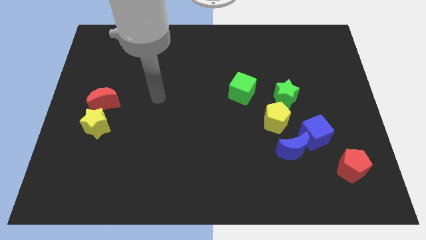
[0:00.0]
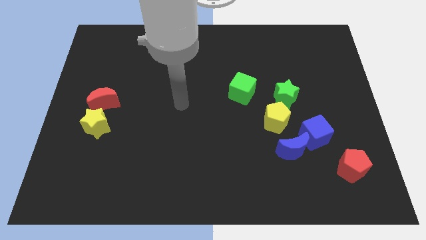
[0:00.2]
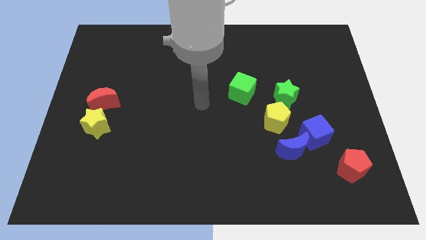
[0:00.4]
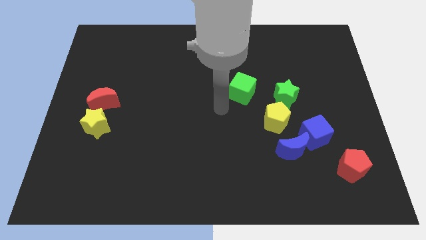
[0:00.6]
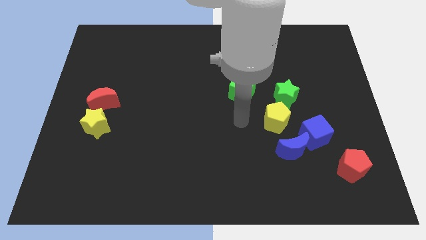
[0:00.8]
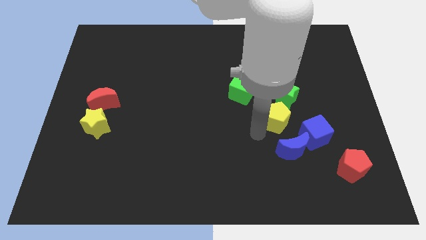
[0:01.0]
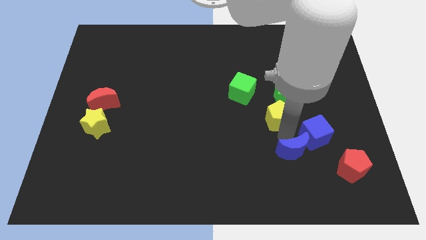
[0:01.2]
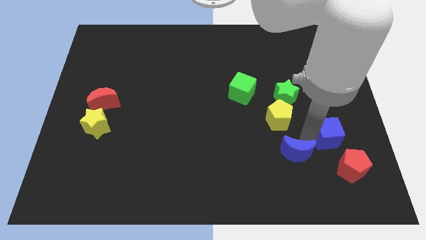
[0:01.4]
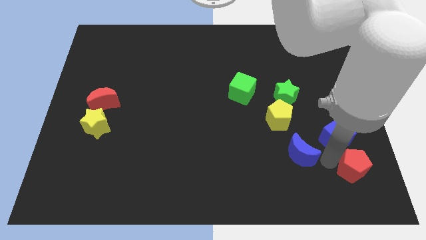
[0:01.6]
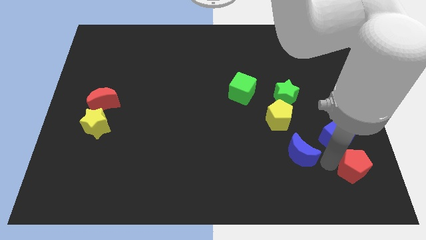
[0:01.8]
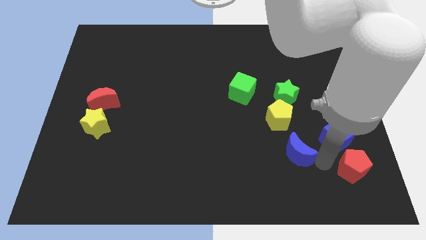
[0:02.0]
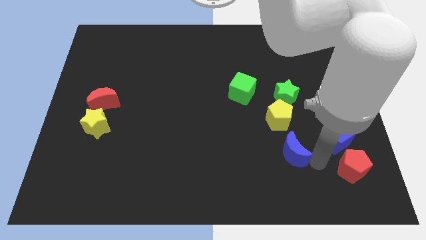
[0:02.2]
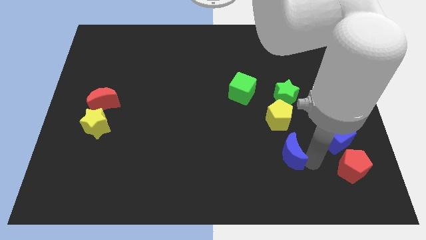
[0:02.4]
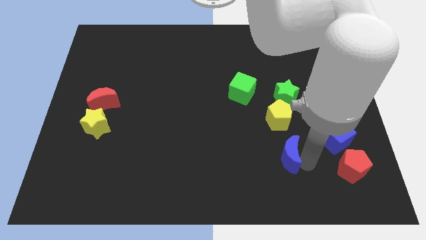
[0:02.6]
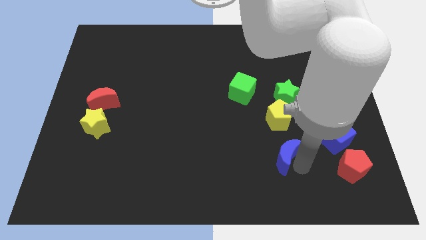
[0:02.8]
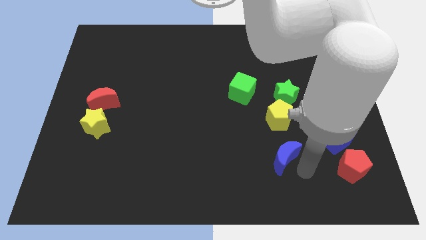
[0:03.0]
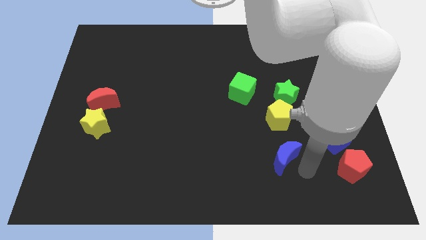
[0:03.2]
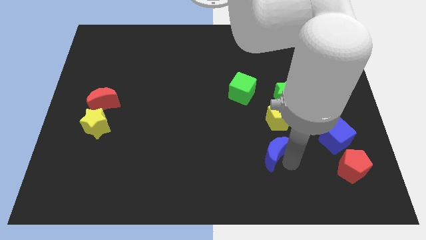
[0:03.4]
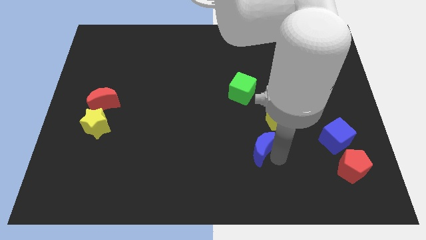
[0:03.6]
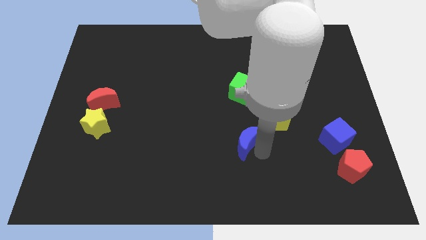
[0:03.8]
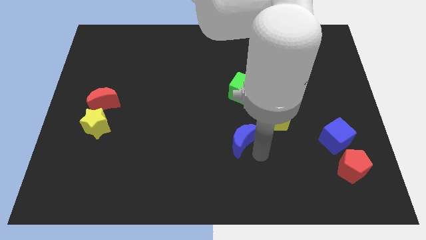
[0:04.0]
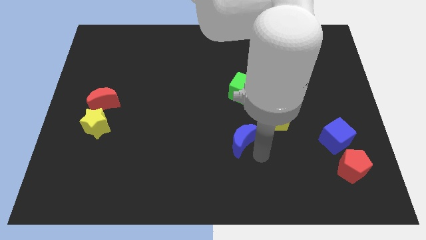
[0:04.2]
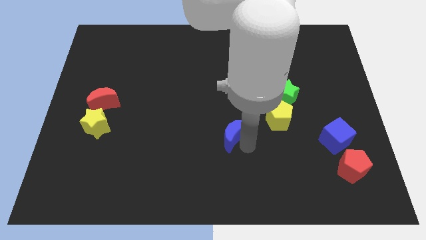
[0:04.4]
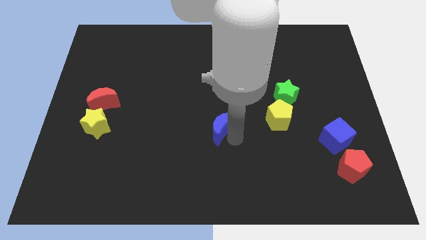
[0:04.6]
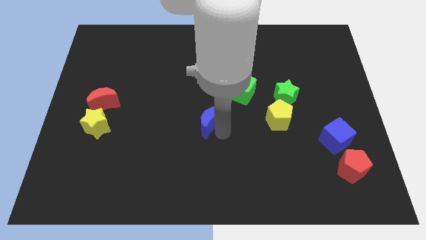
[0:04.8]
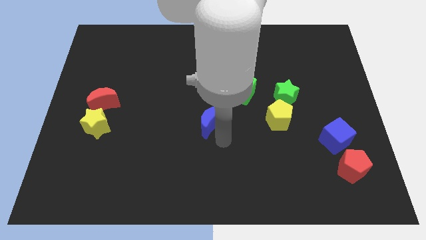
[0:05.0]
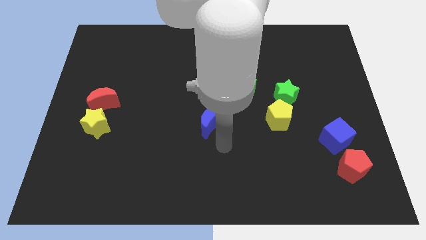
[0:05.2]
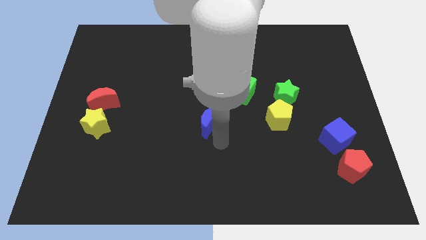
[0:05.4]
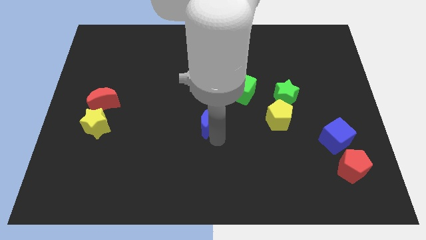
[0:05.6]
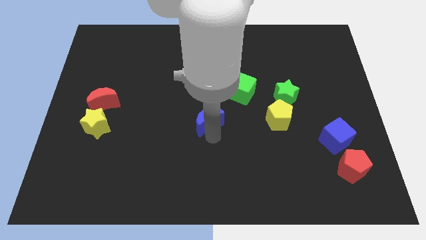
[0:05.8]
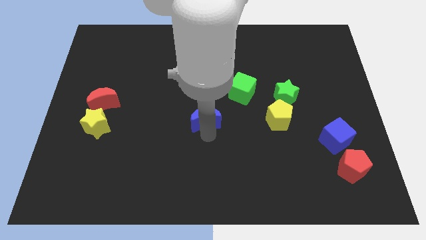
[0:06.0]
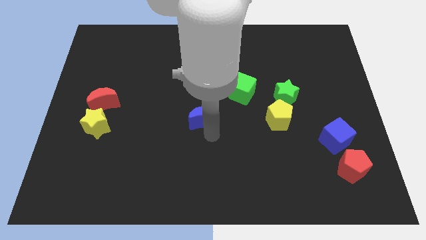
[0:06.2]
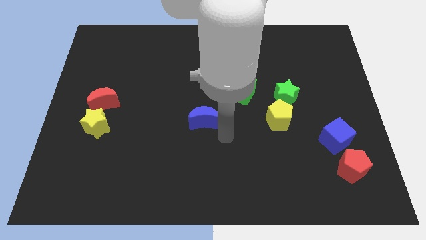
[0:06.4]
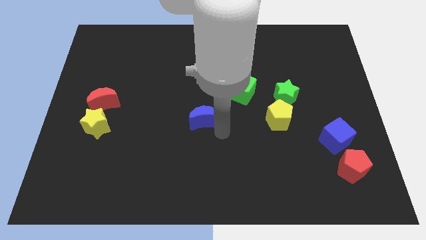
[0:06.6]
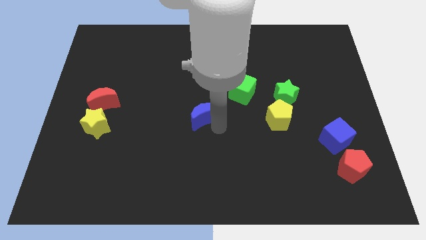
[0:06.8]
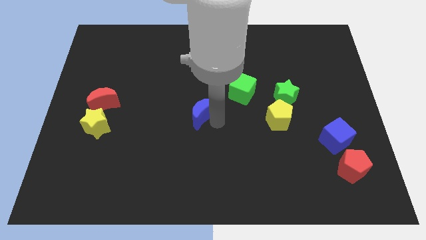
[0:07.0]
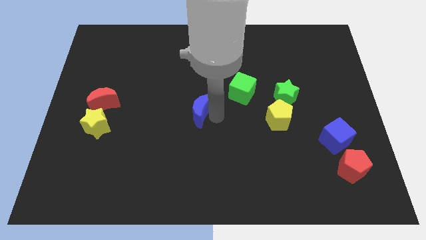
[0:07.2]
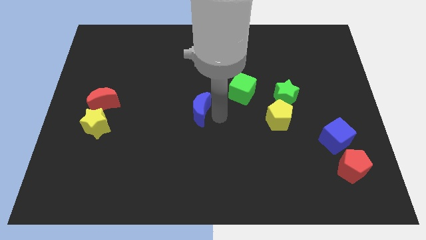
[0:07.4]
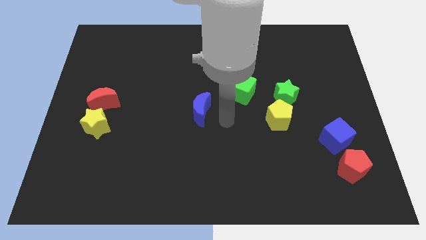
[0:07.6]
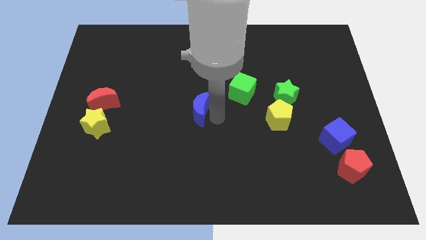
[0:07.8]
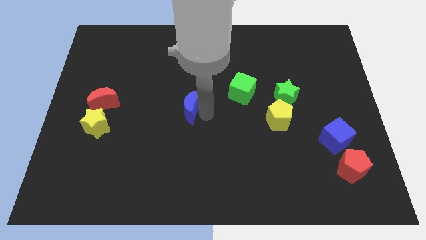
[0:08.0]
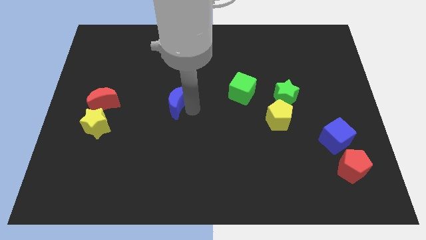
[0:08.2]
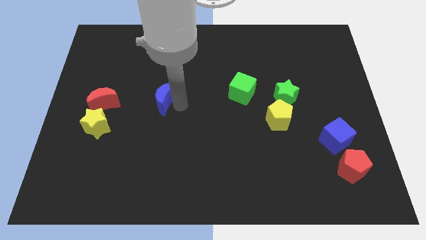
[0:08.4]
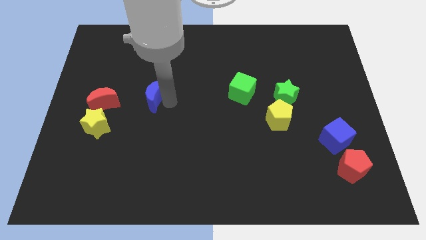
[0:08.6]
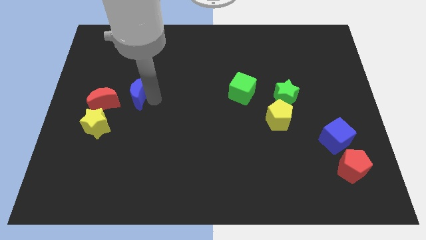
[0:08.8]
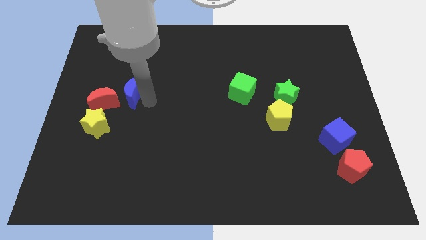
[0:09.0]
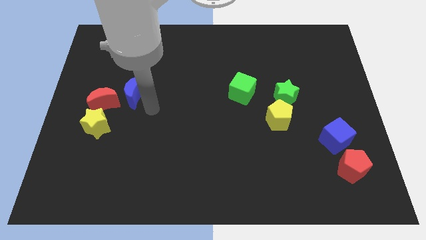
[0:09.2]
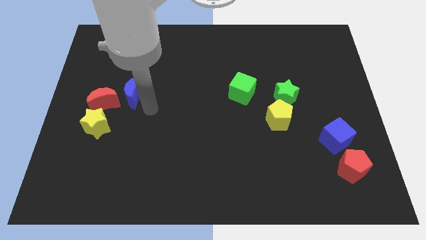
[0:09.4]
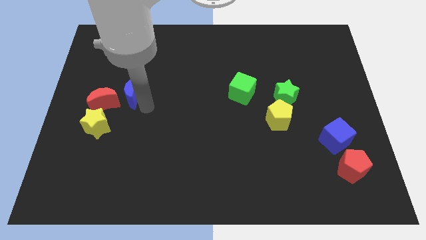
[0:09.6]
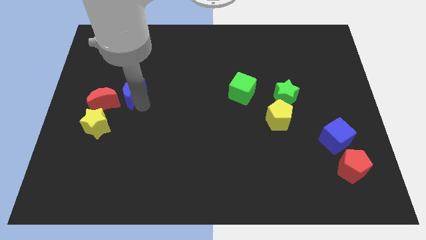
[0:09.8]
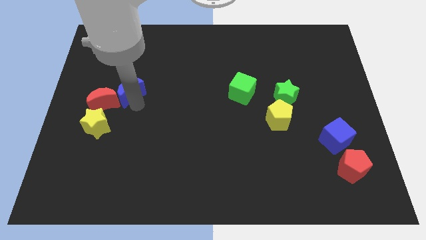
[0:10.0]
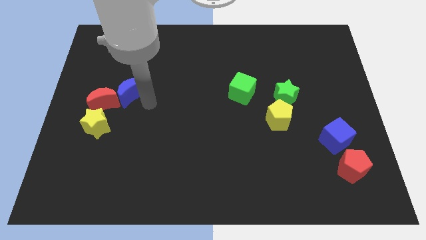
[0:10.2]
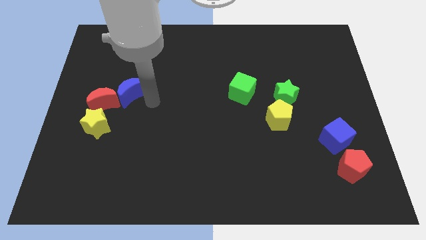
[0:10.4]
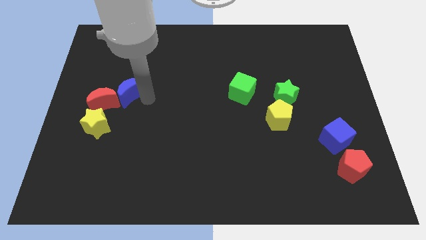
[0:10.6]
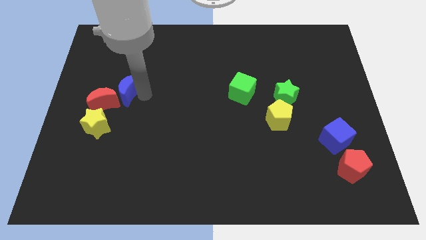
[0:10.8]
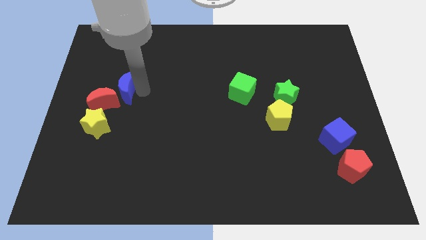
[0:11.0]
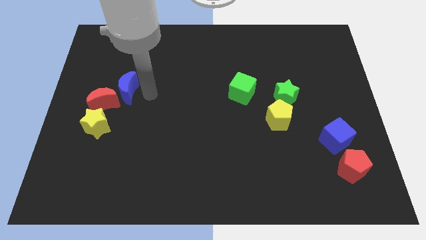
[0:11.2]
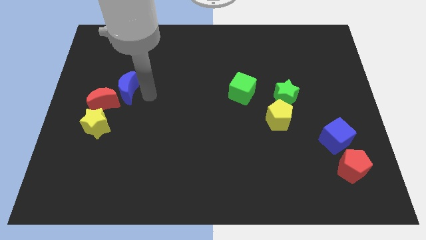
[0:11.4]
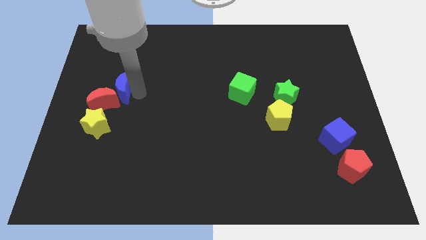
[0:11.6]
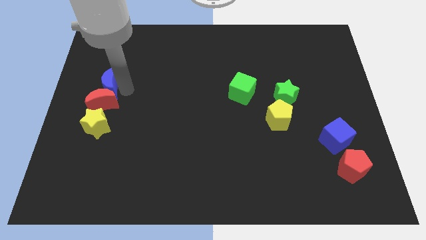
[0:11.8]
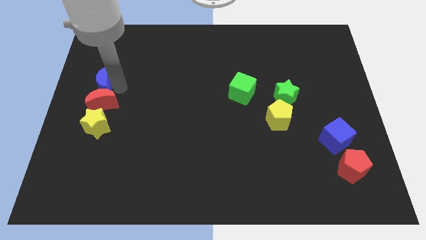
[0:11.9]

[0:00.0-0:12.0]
move the blue moon to the center left

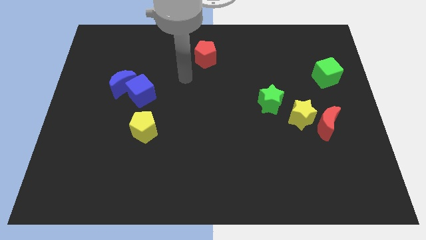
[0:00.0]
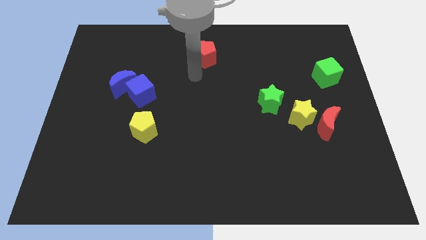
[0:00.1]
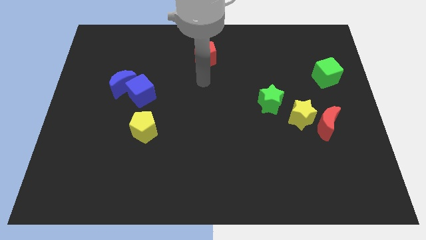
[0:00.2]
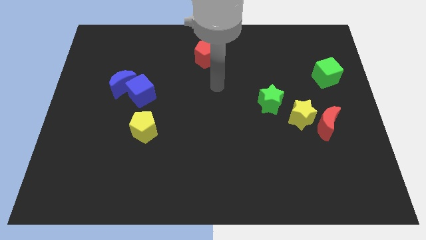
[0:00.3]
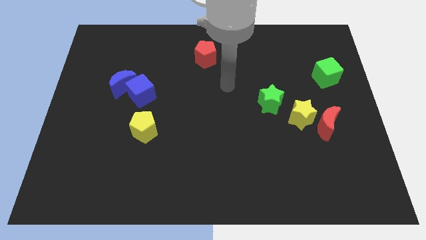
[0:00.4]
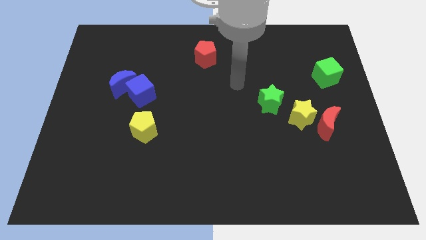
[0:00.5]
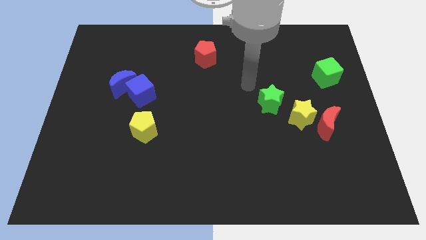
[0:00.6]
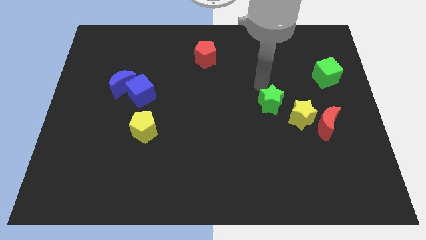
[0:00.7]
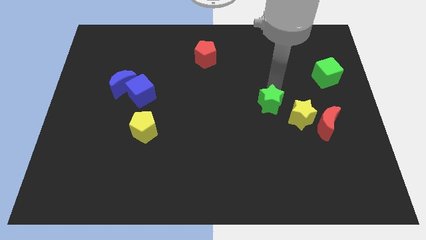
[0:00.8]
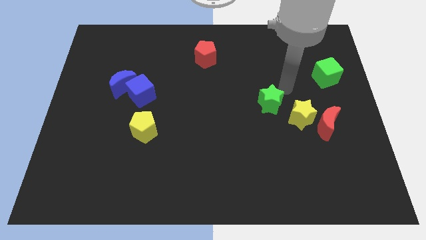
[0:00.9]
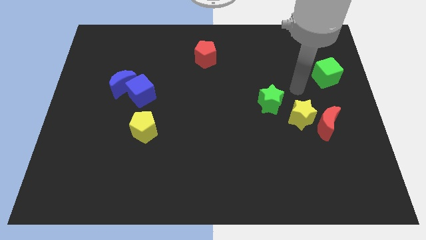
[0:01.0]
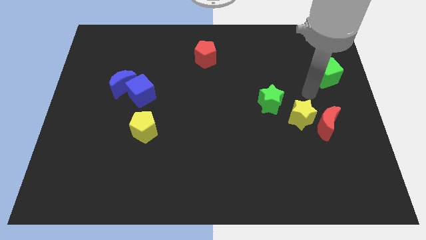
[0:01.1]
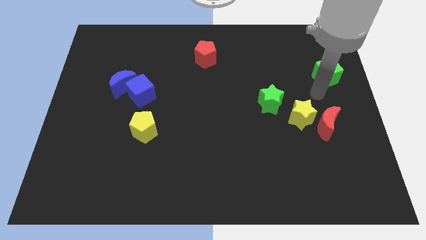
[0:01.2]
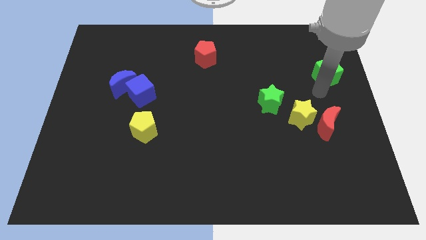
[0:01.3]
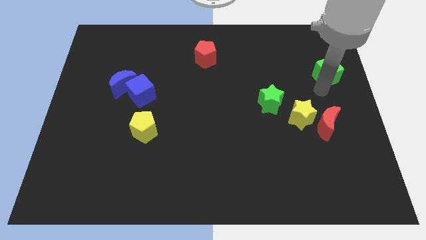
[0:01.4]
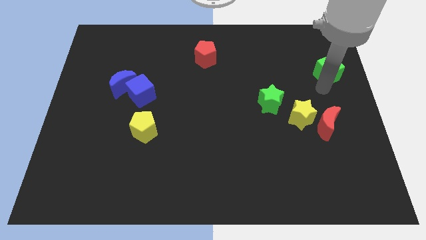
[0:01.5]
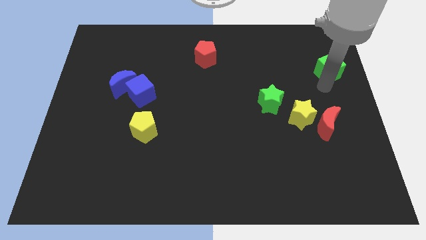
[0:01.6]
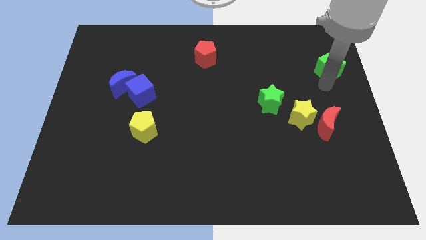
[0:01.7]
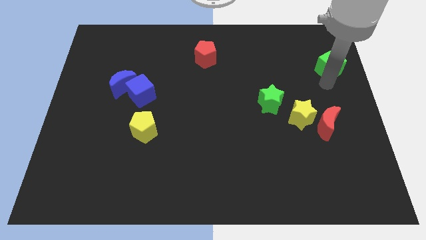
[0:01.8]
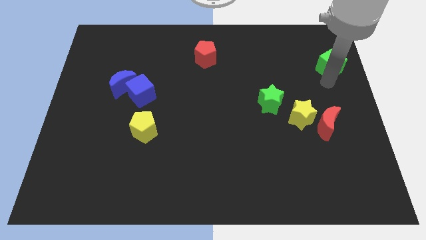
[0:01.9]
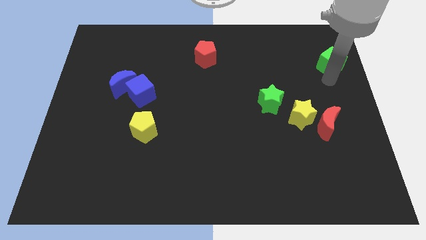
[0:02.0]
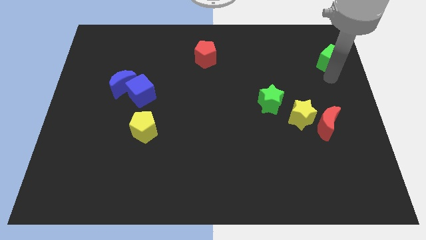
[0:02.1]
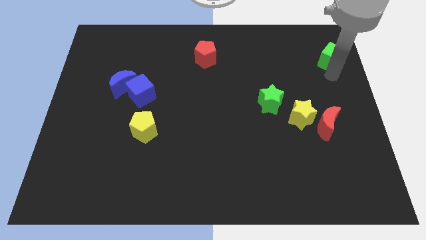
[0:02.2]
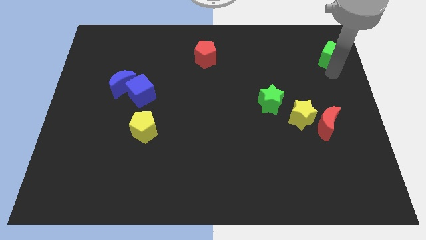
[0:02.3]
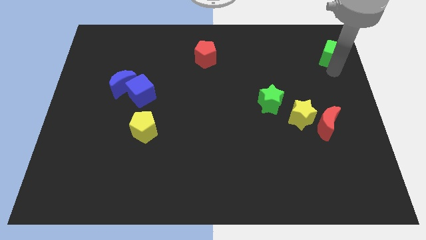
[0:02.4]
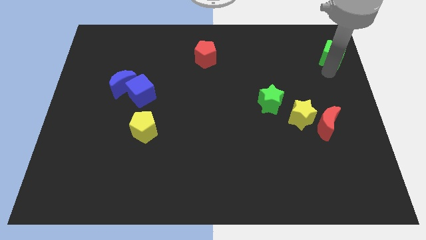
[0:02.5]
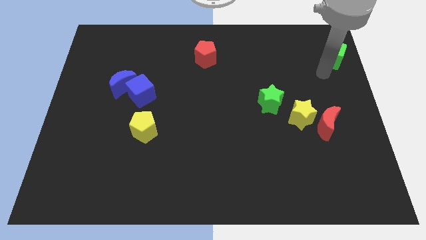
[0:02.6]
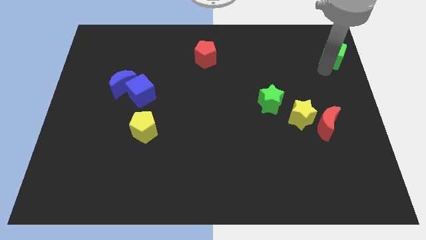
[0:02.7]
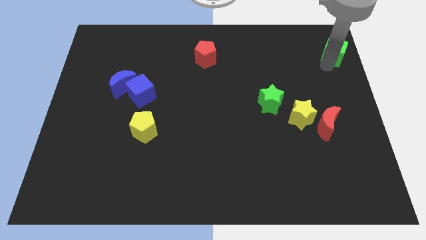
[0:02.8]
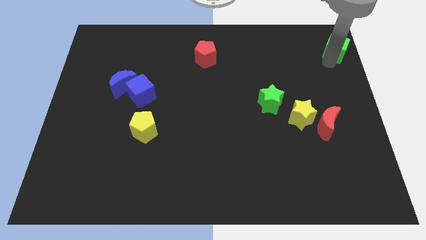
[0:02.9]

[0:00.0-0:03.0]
move the green cube to the top right corner
